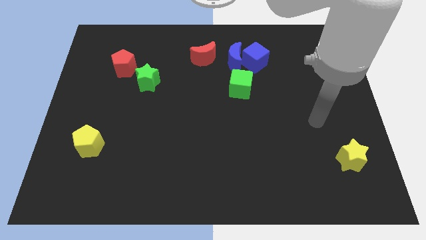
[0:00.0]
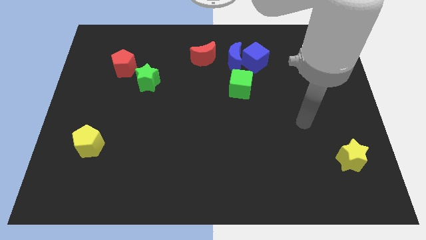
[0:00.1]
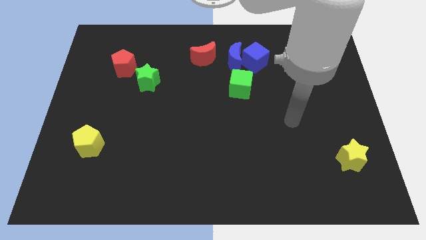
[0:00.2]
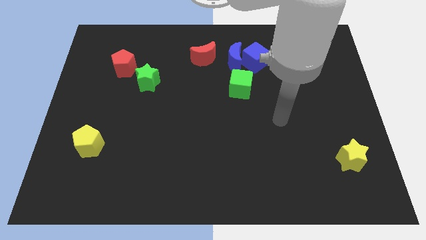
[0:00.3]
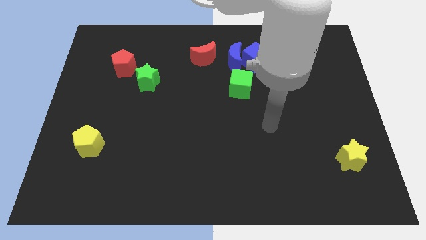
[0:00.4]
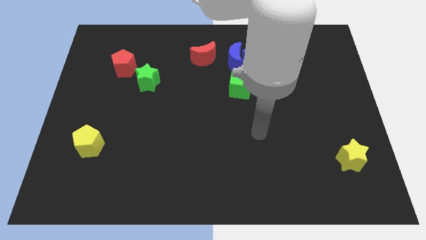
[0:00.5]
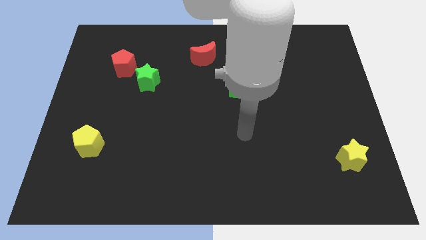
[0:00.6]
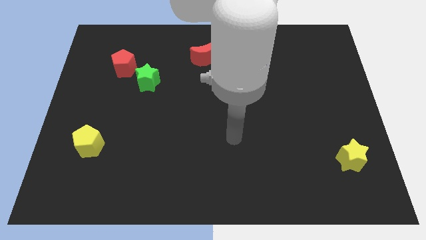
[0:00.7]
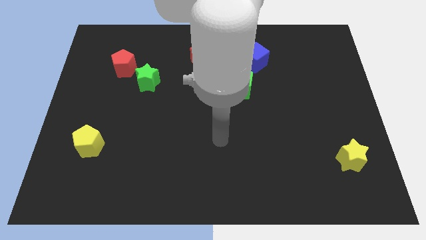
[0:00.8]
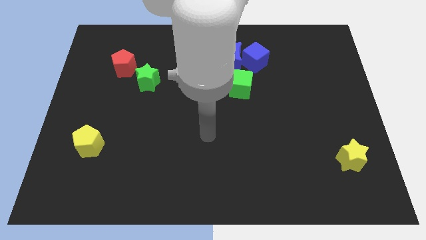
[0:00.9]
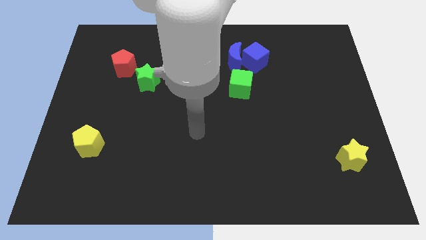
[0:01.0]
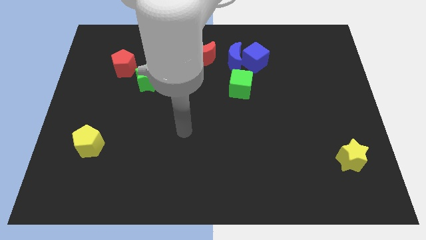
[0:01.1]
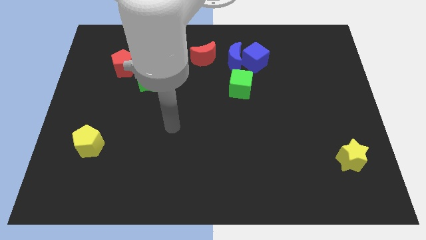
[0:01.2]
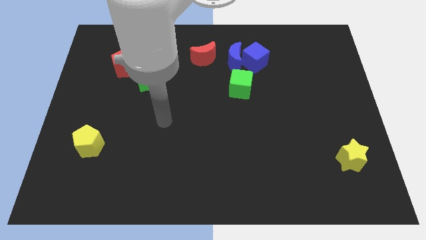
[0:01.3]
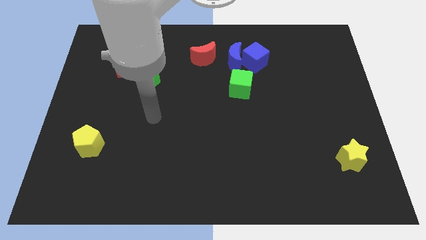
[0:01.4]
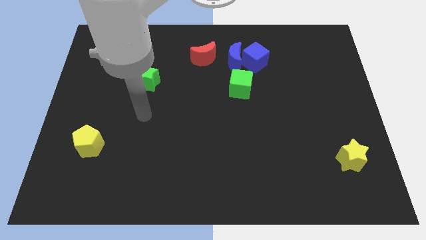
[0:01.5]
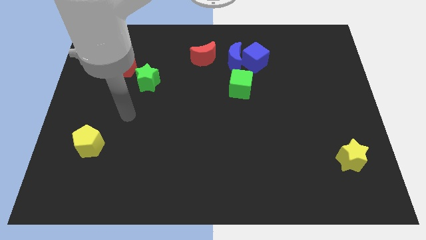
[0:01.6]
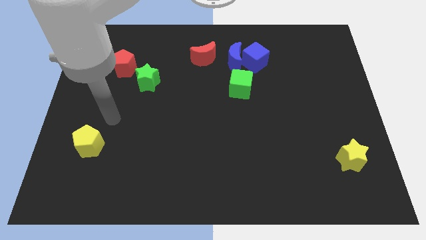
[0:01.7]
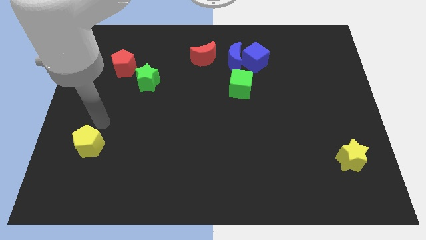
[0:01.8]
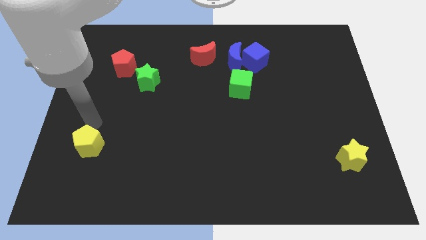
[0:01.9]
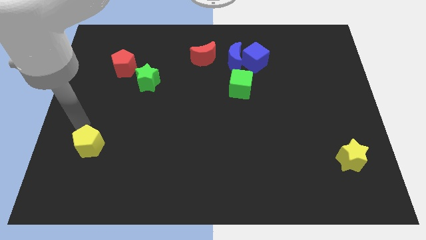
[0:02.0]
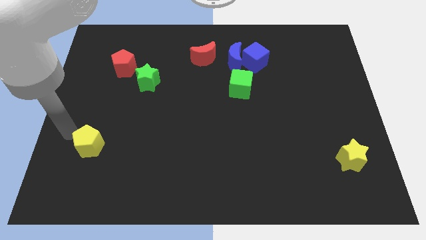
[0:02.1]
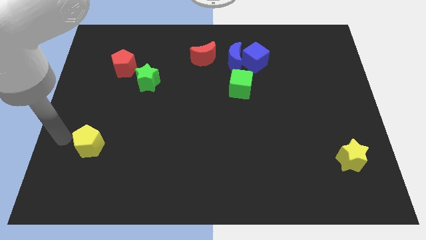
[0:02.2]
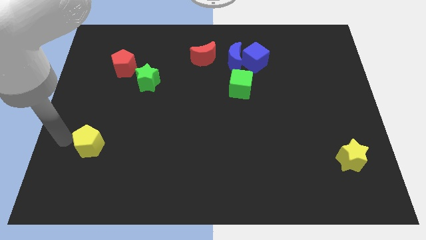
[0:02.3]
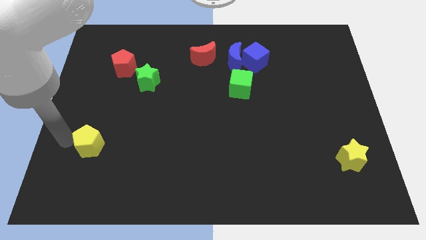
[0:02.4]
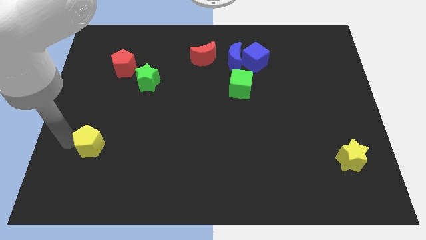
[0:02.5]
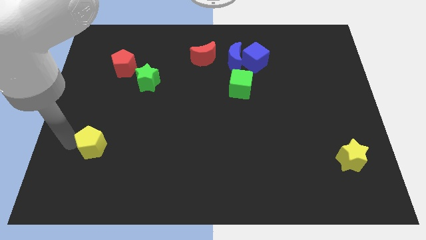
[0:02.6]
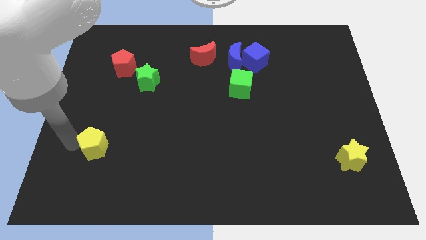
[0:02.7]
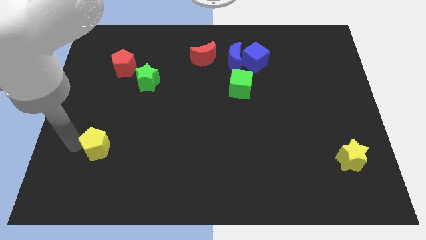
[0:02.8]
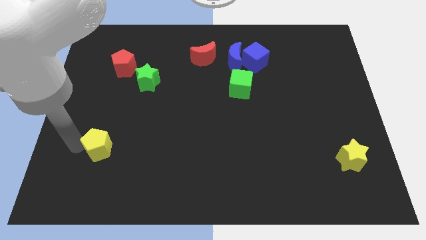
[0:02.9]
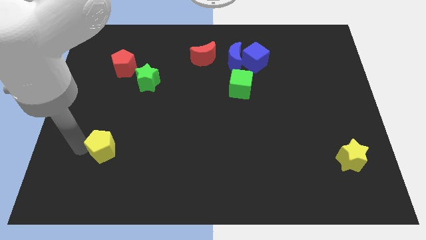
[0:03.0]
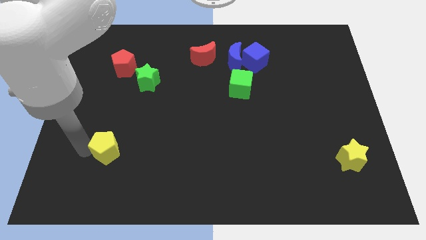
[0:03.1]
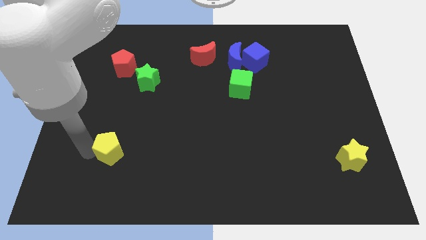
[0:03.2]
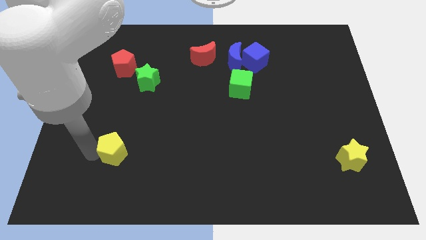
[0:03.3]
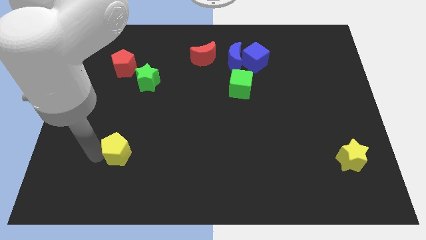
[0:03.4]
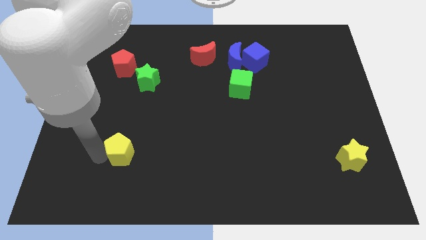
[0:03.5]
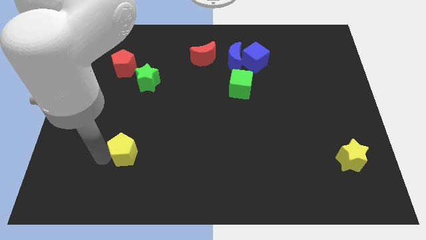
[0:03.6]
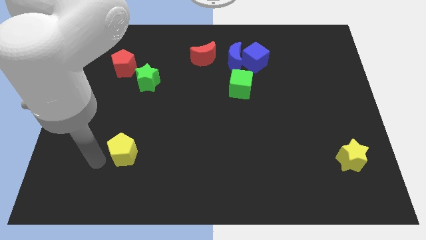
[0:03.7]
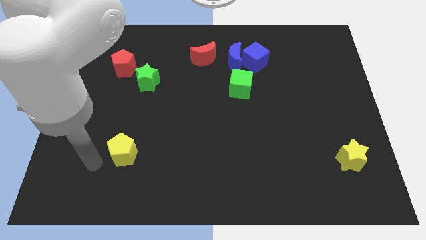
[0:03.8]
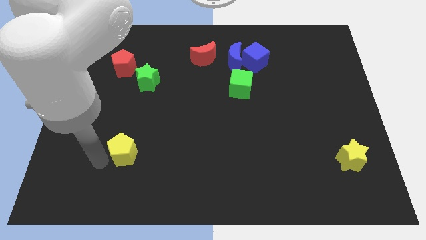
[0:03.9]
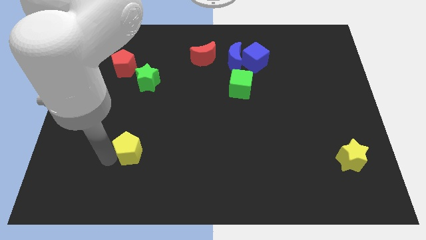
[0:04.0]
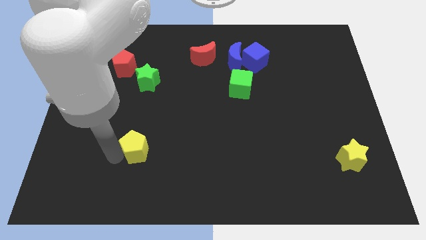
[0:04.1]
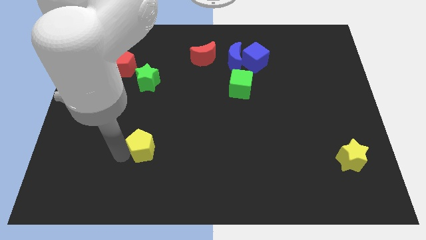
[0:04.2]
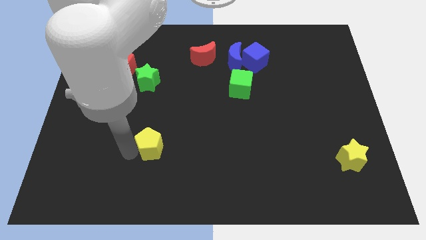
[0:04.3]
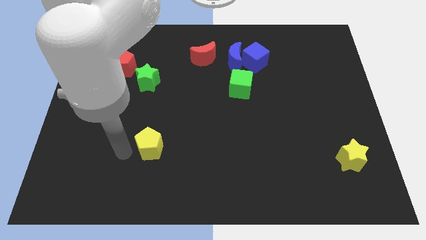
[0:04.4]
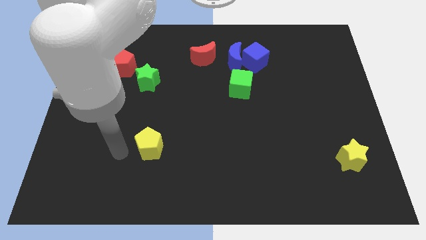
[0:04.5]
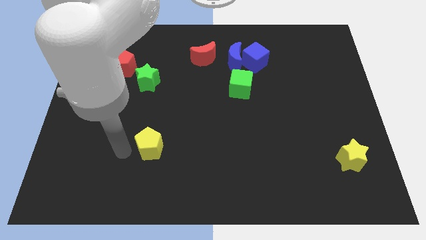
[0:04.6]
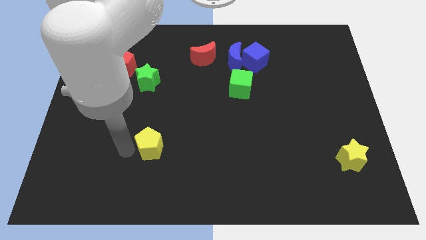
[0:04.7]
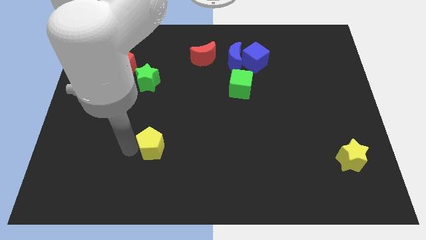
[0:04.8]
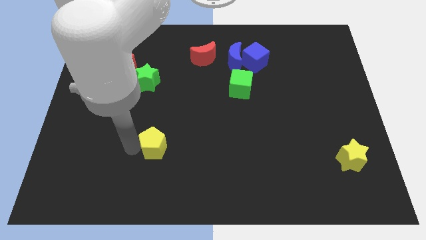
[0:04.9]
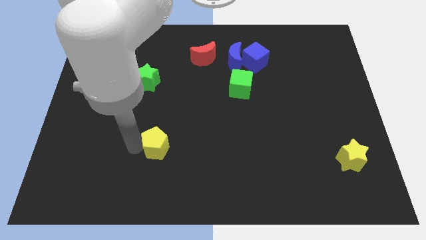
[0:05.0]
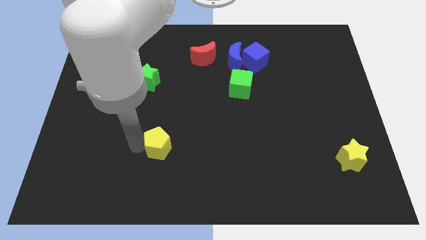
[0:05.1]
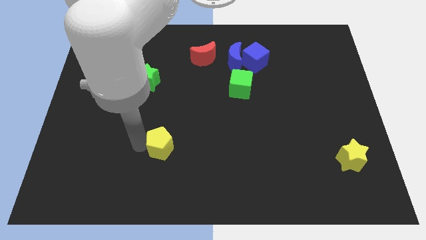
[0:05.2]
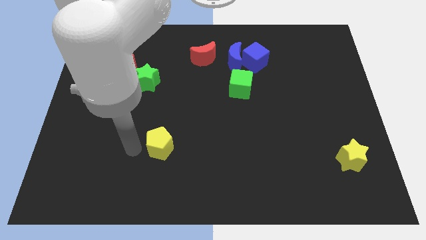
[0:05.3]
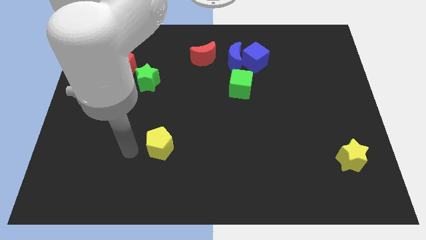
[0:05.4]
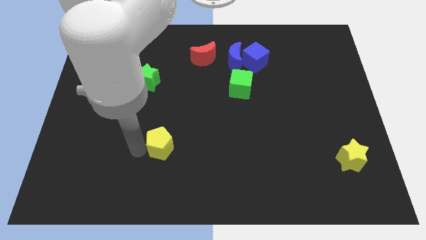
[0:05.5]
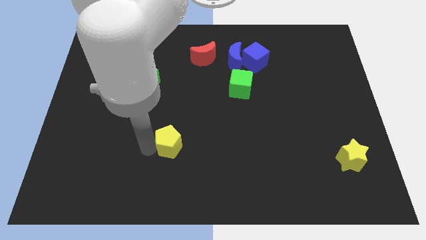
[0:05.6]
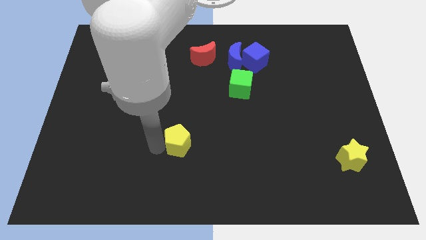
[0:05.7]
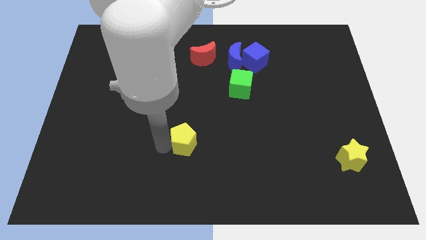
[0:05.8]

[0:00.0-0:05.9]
move the yellow pentagon to the right

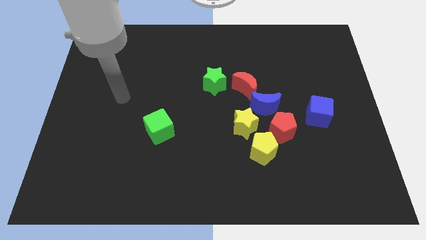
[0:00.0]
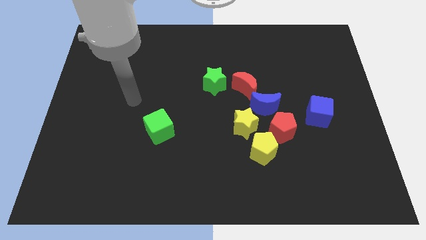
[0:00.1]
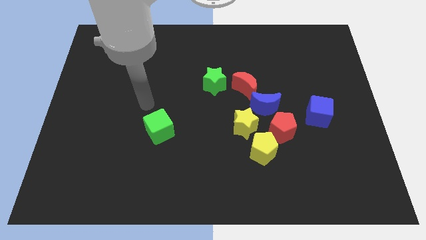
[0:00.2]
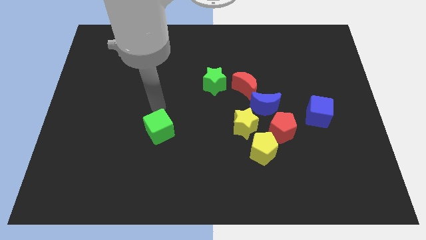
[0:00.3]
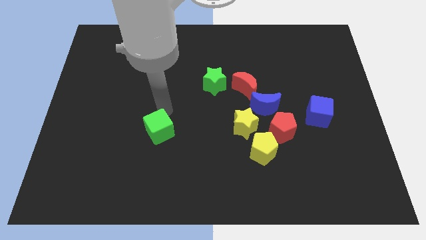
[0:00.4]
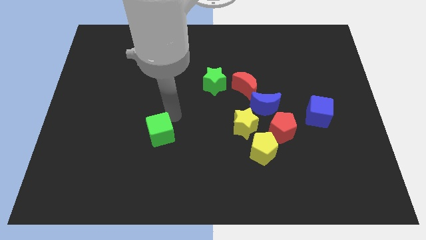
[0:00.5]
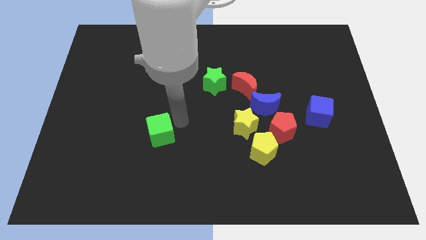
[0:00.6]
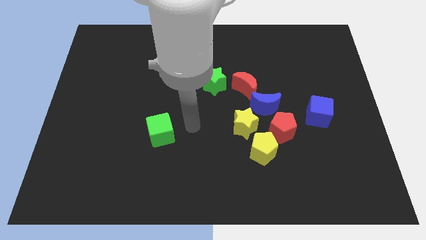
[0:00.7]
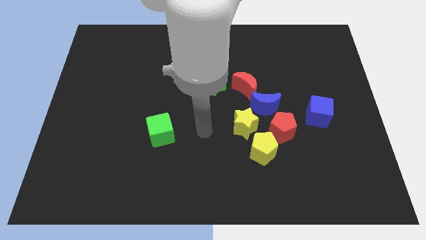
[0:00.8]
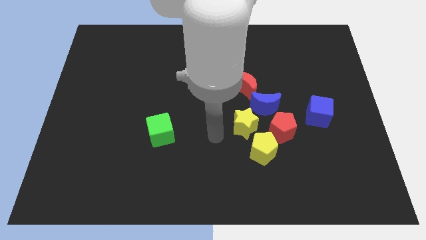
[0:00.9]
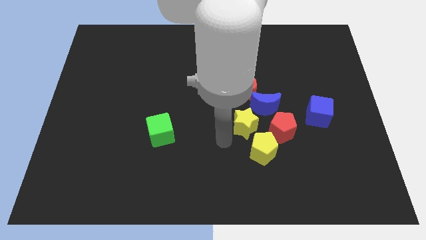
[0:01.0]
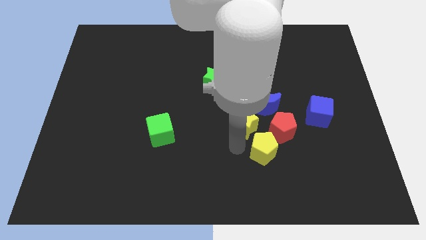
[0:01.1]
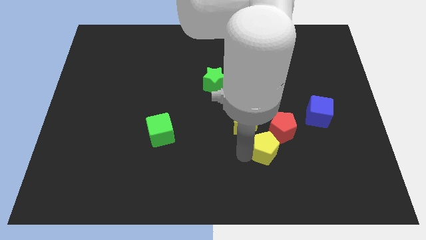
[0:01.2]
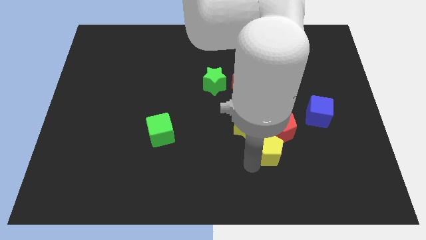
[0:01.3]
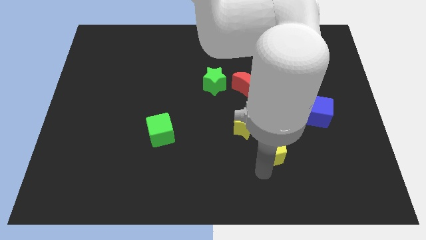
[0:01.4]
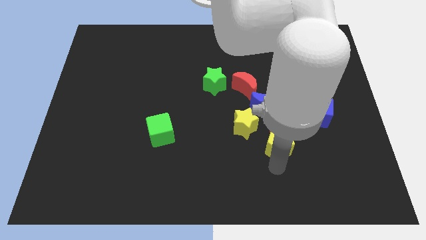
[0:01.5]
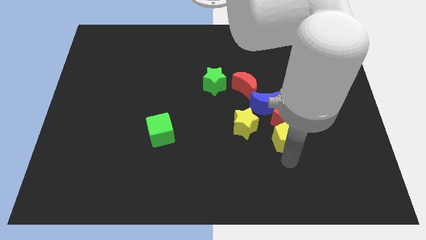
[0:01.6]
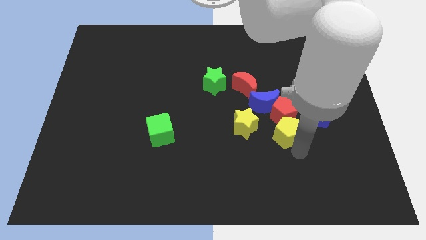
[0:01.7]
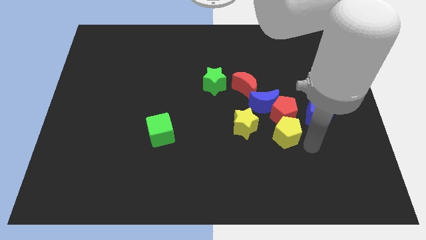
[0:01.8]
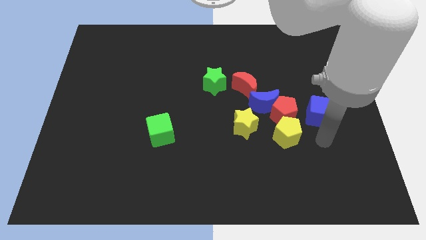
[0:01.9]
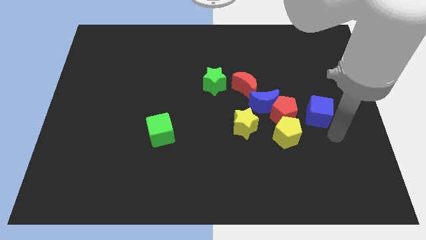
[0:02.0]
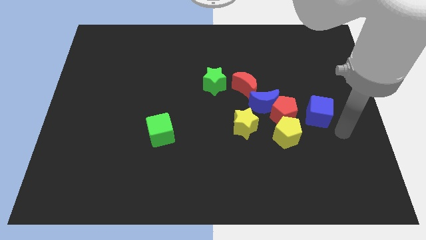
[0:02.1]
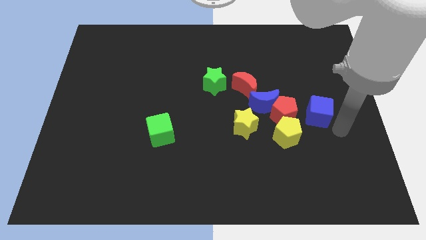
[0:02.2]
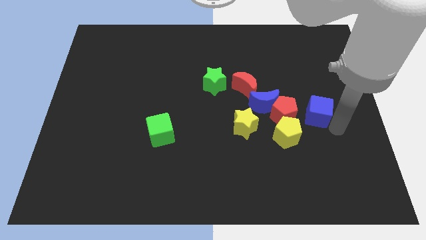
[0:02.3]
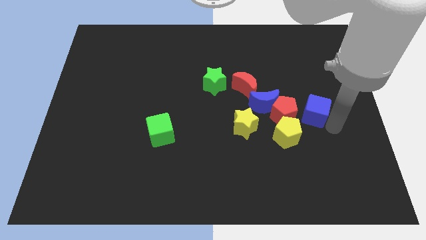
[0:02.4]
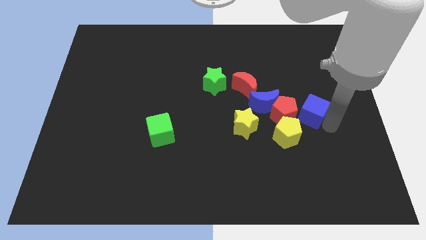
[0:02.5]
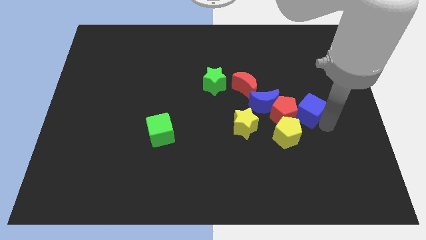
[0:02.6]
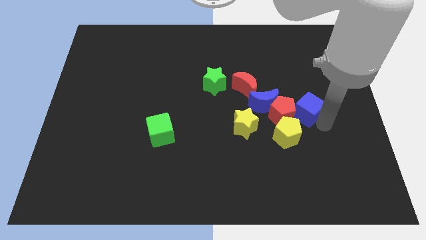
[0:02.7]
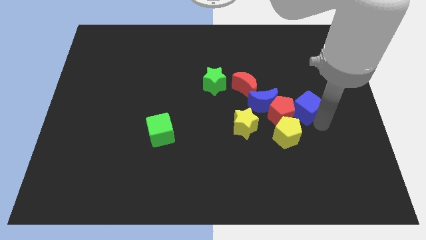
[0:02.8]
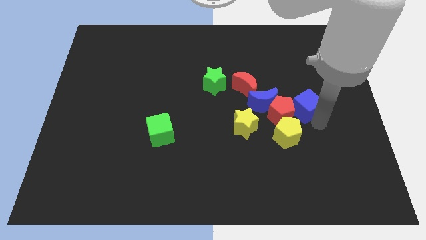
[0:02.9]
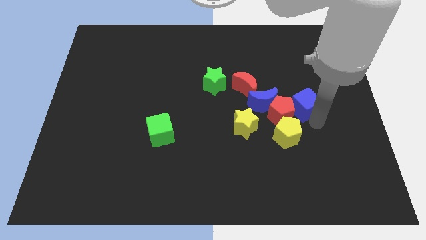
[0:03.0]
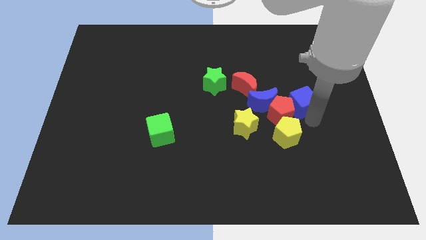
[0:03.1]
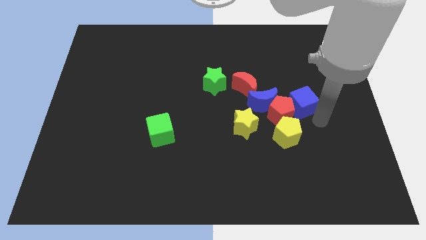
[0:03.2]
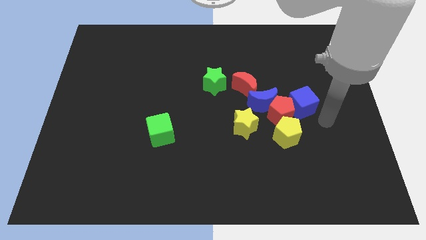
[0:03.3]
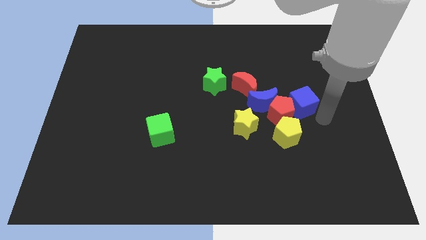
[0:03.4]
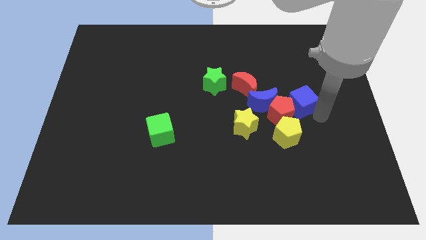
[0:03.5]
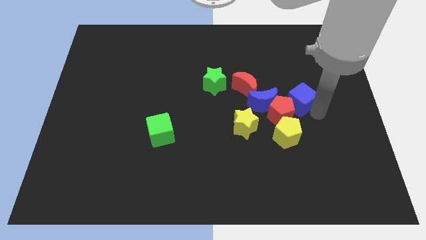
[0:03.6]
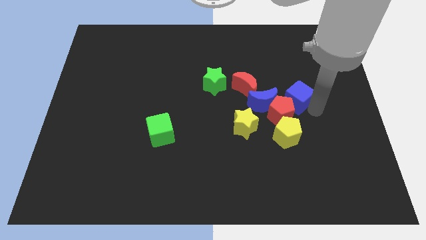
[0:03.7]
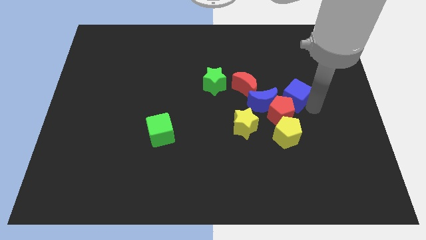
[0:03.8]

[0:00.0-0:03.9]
slightly move the blue cube upwards and to the left
